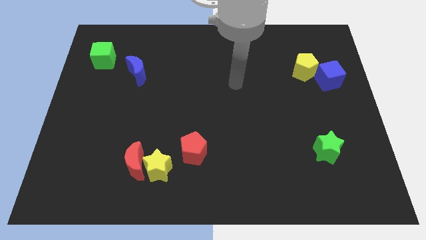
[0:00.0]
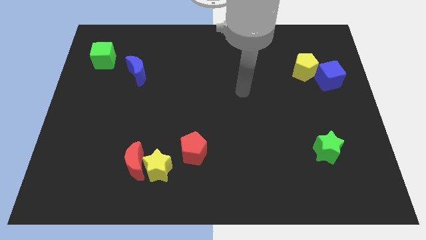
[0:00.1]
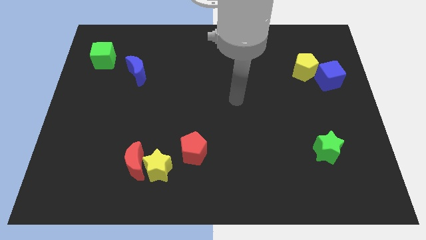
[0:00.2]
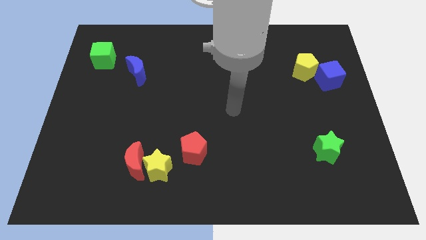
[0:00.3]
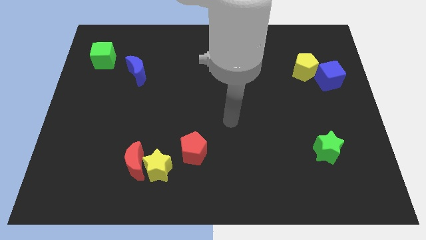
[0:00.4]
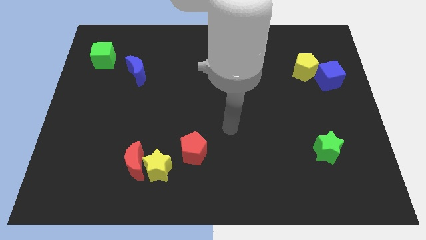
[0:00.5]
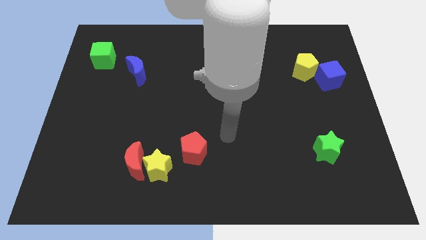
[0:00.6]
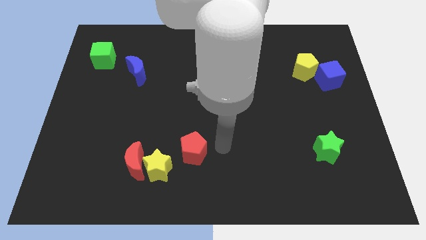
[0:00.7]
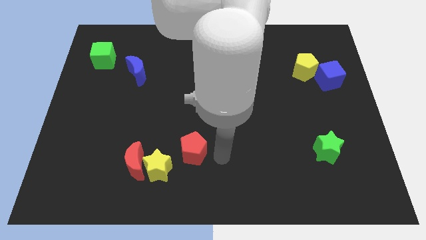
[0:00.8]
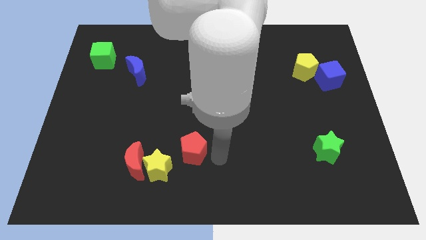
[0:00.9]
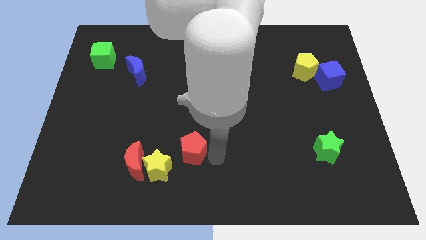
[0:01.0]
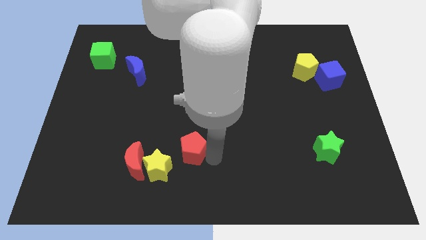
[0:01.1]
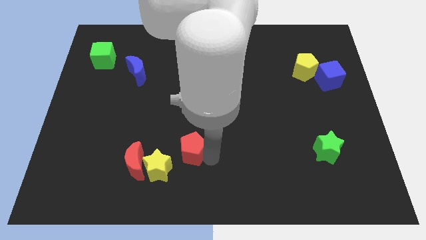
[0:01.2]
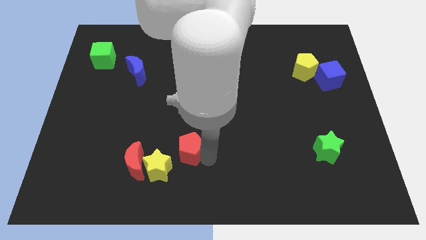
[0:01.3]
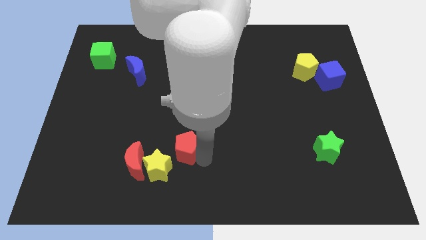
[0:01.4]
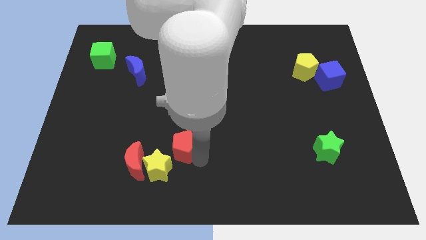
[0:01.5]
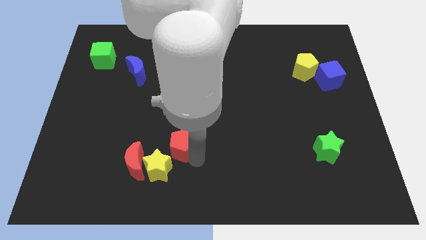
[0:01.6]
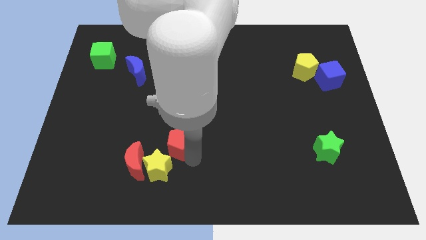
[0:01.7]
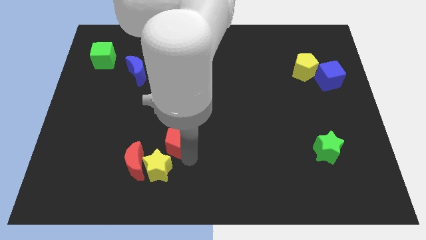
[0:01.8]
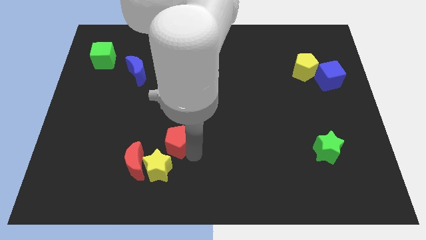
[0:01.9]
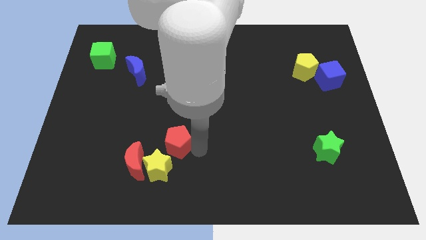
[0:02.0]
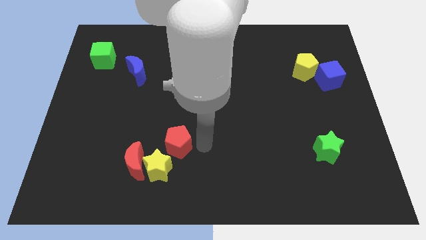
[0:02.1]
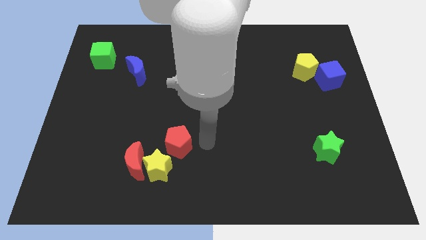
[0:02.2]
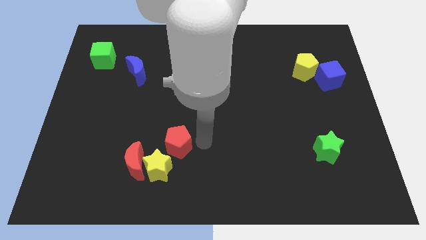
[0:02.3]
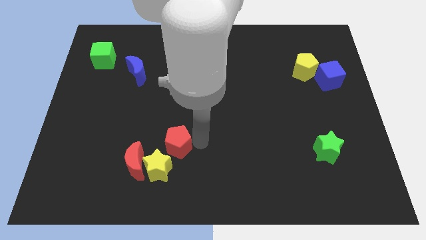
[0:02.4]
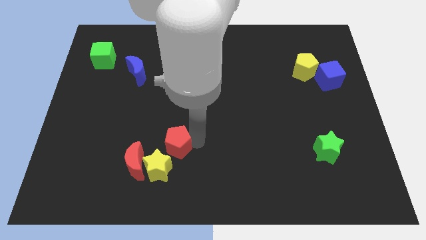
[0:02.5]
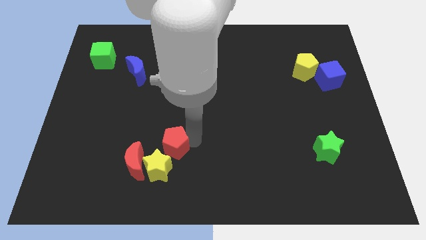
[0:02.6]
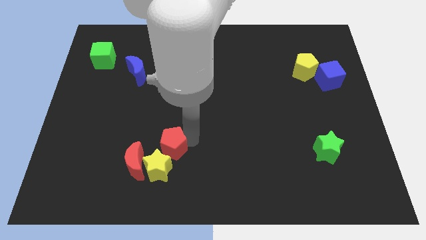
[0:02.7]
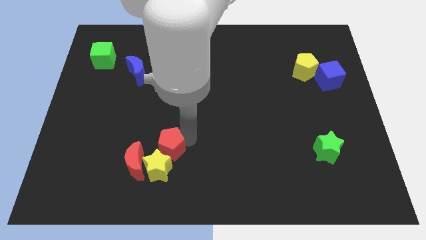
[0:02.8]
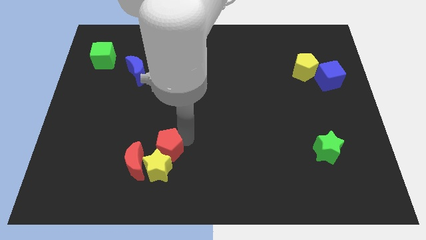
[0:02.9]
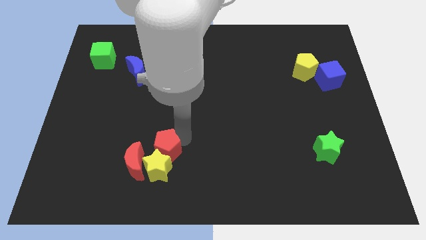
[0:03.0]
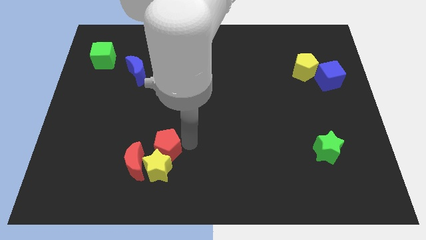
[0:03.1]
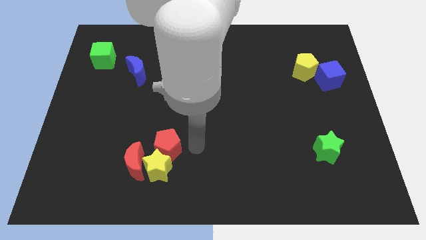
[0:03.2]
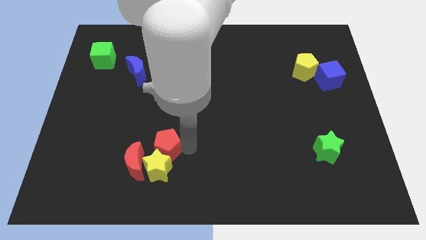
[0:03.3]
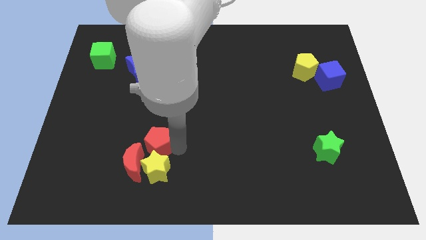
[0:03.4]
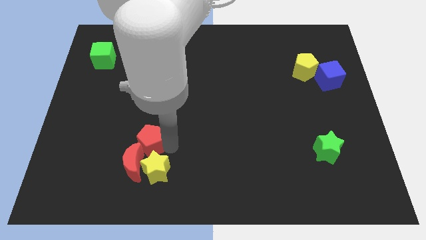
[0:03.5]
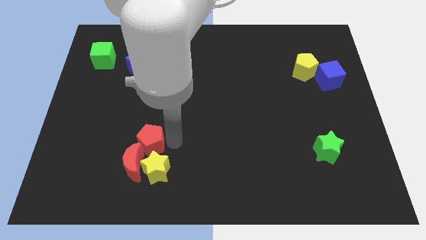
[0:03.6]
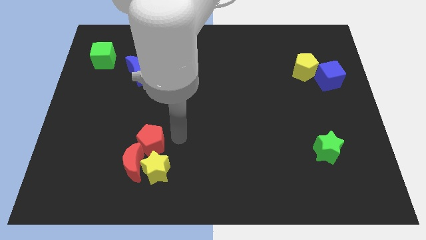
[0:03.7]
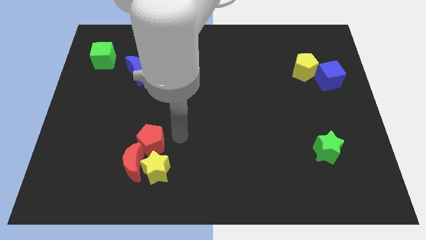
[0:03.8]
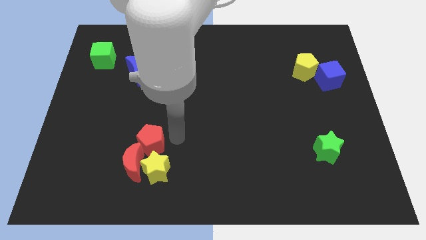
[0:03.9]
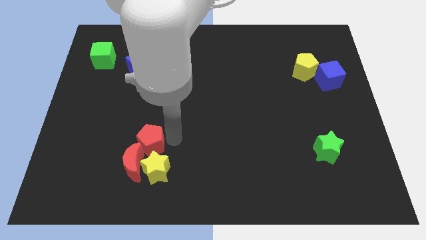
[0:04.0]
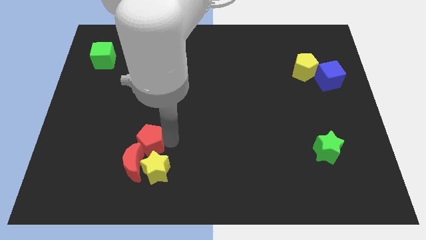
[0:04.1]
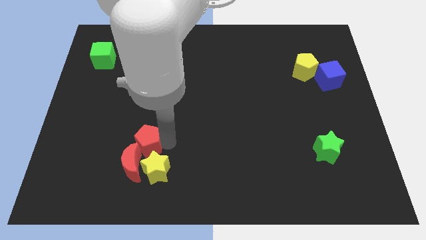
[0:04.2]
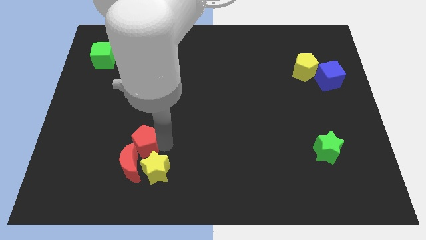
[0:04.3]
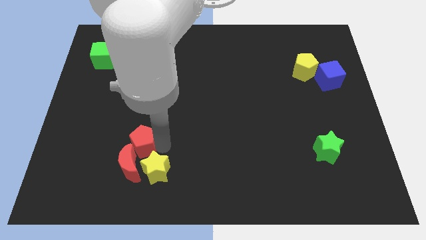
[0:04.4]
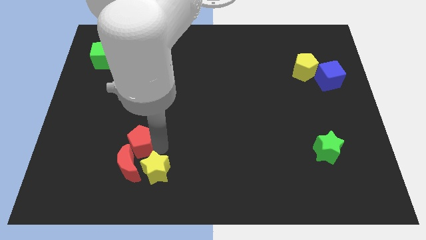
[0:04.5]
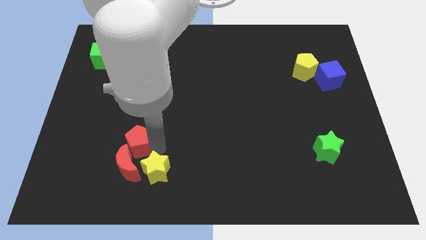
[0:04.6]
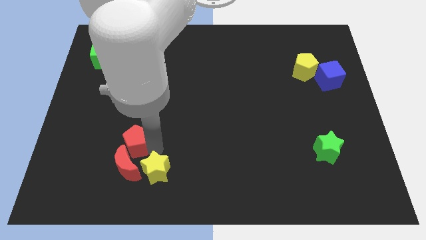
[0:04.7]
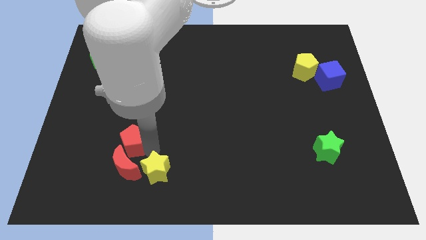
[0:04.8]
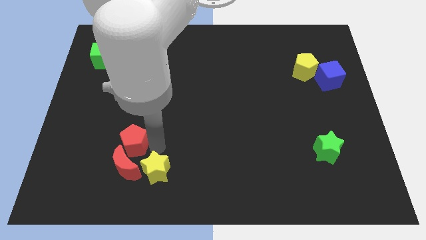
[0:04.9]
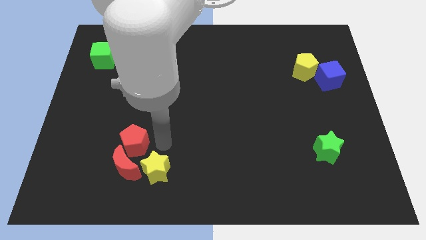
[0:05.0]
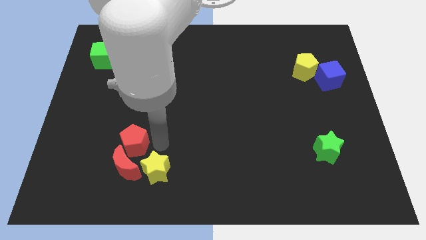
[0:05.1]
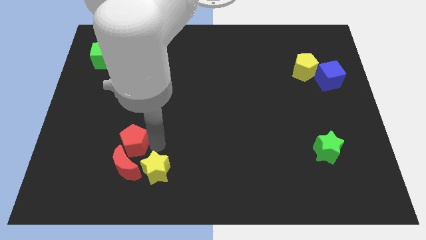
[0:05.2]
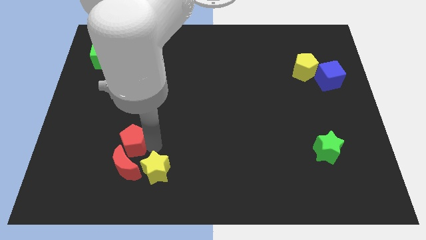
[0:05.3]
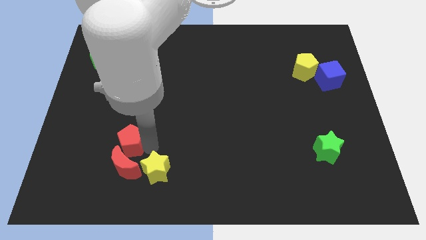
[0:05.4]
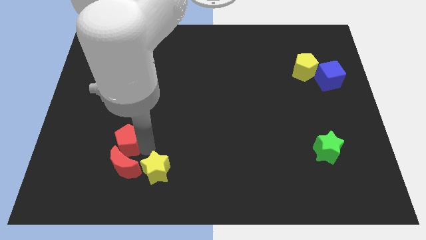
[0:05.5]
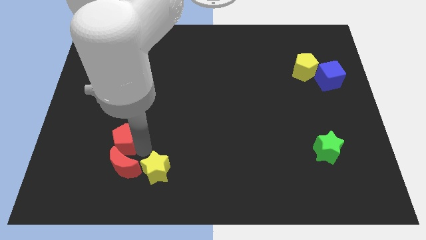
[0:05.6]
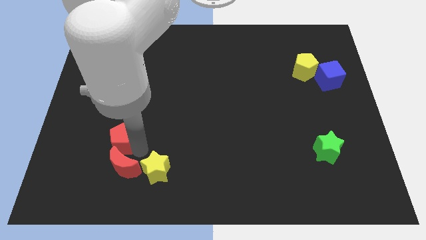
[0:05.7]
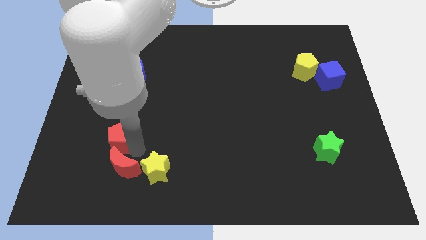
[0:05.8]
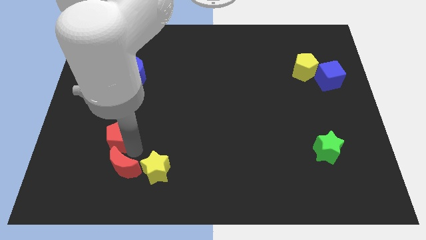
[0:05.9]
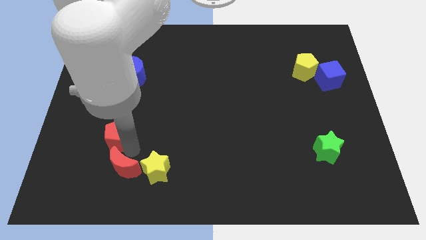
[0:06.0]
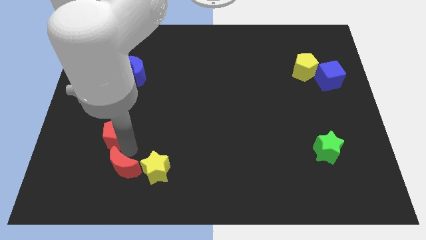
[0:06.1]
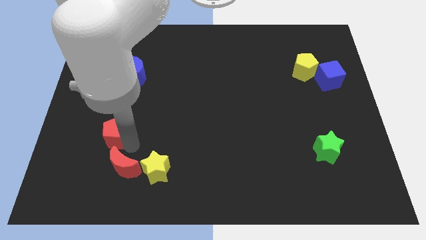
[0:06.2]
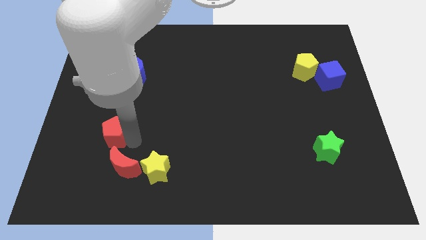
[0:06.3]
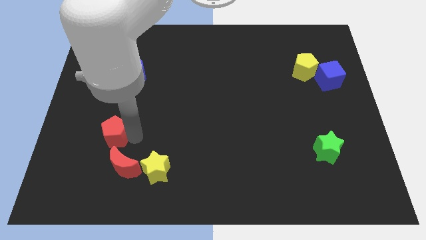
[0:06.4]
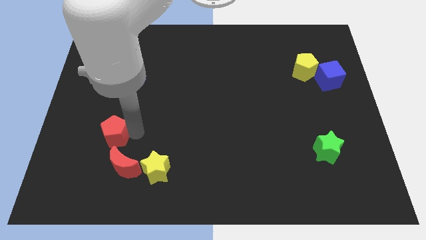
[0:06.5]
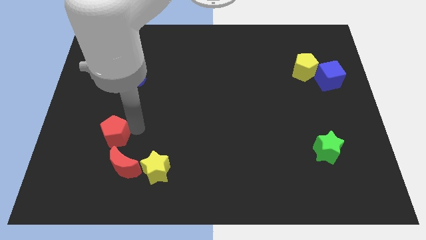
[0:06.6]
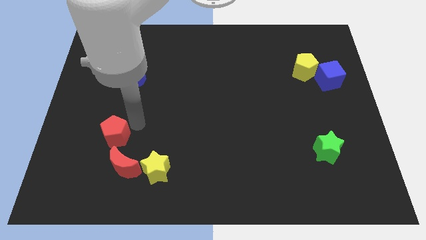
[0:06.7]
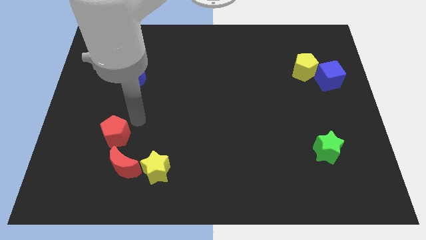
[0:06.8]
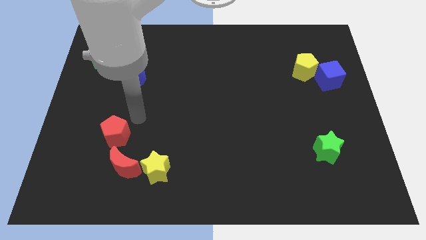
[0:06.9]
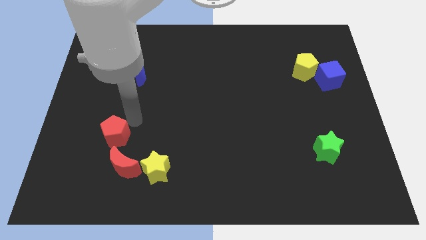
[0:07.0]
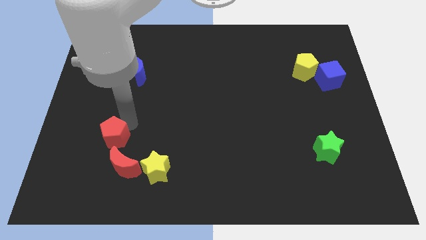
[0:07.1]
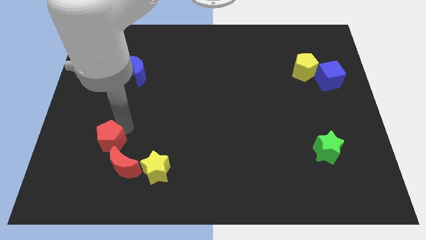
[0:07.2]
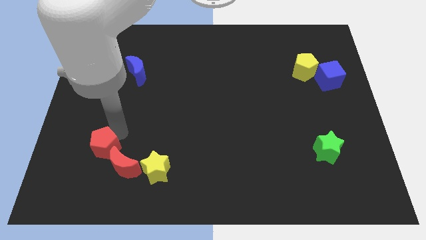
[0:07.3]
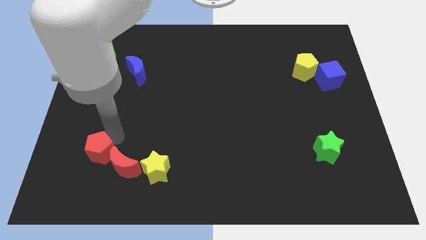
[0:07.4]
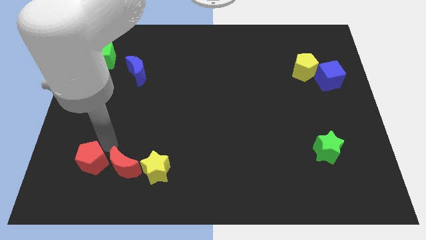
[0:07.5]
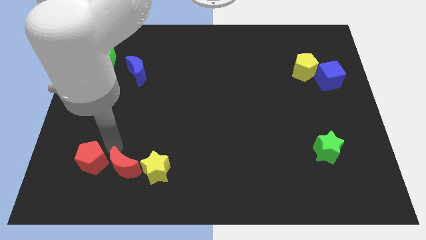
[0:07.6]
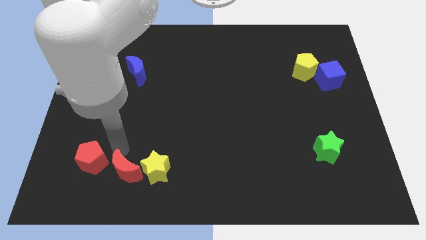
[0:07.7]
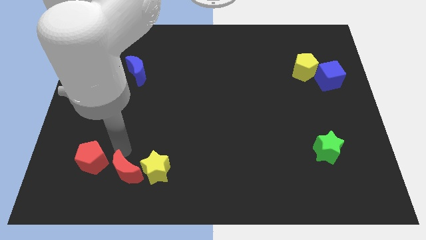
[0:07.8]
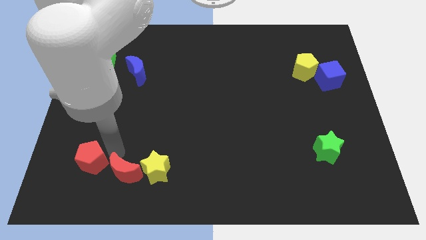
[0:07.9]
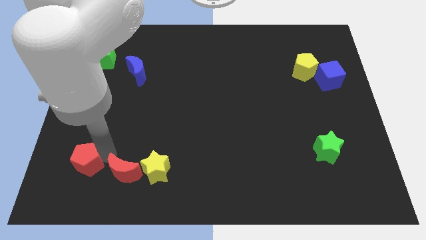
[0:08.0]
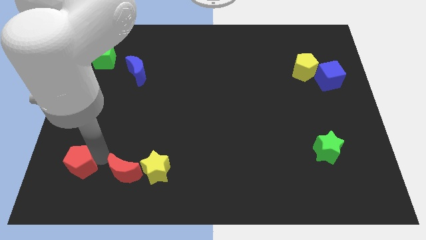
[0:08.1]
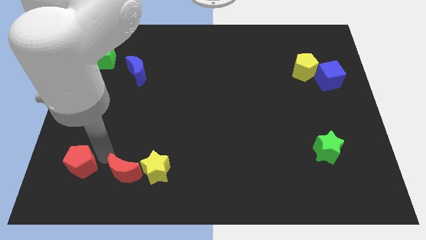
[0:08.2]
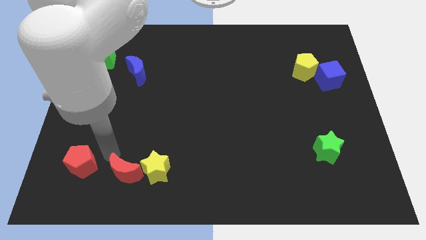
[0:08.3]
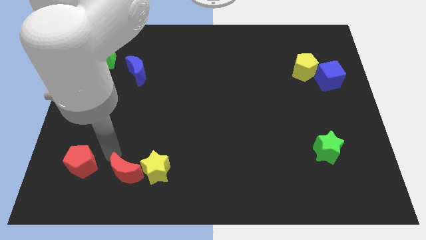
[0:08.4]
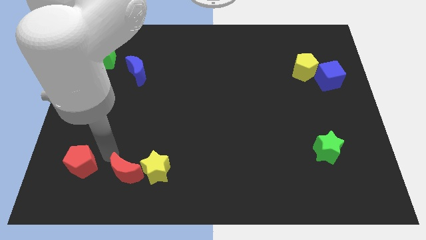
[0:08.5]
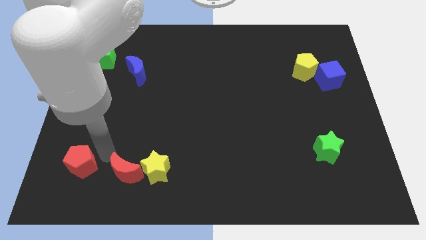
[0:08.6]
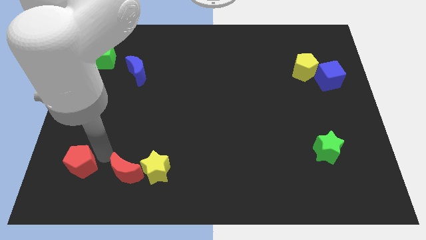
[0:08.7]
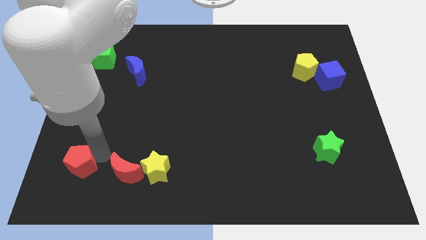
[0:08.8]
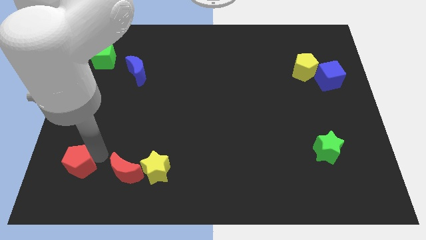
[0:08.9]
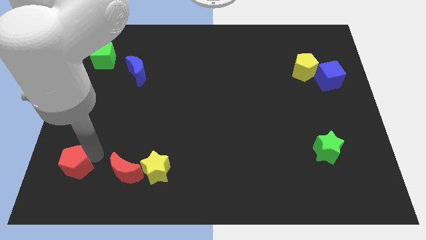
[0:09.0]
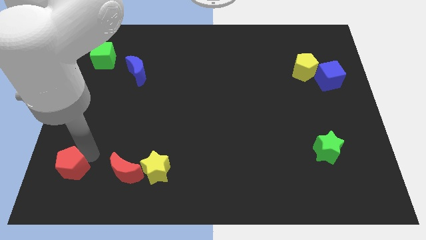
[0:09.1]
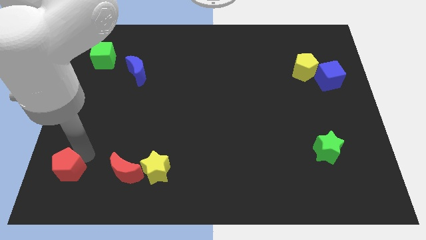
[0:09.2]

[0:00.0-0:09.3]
move the red pentagon to the bottom left corner
